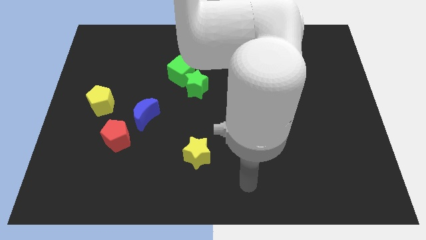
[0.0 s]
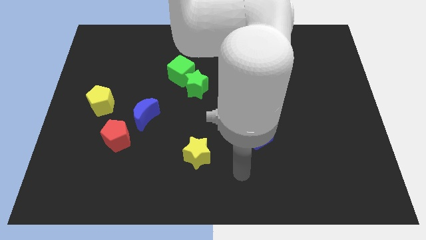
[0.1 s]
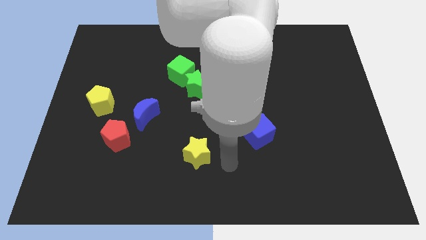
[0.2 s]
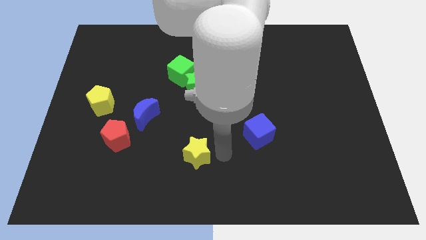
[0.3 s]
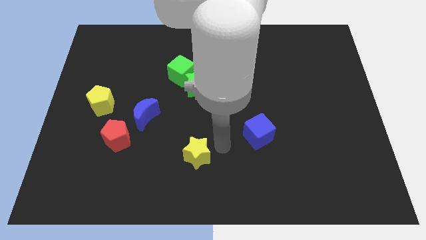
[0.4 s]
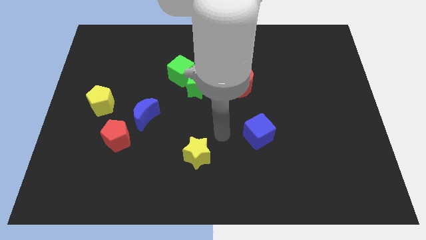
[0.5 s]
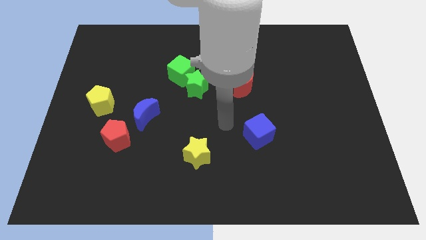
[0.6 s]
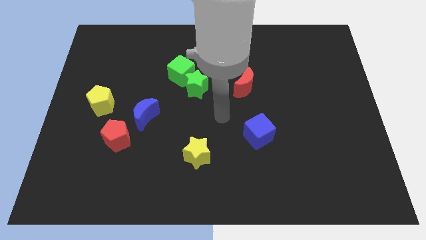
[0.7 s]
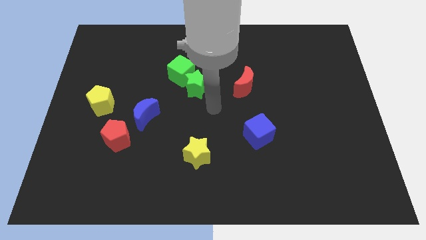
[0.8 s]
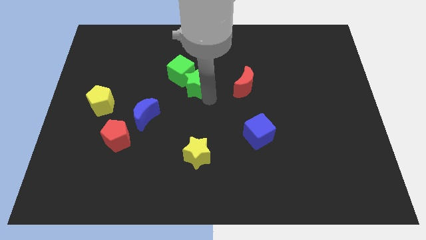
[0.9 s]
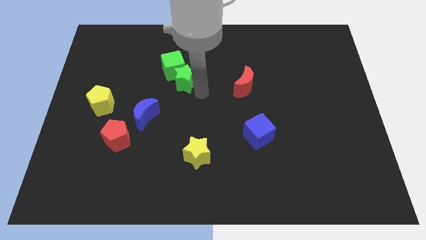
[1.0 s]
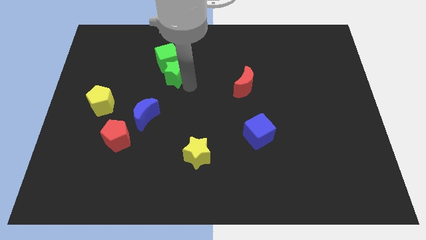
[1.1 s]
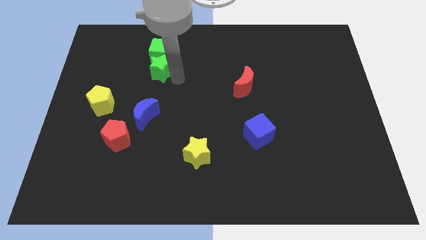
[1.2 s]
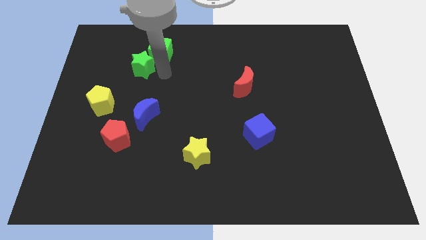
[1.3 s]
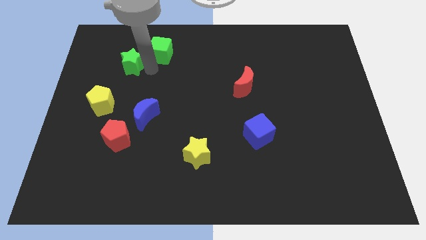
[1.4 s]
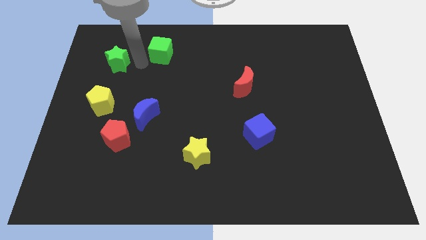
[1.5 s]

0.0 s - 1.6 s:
move the green cube away from the green star

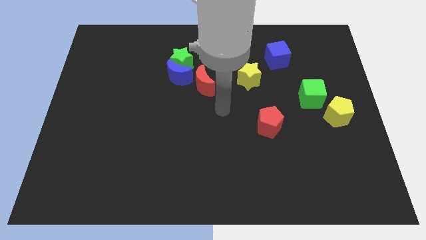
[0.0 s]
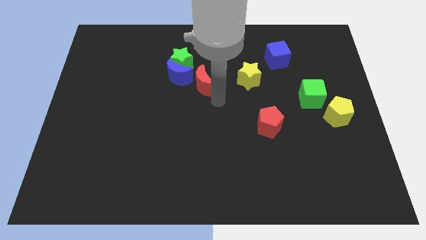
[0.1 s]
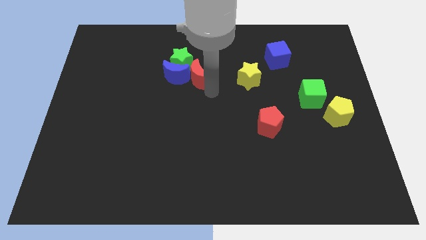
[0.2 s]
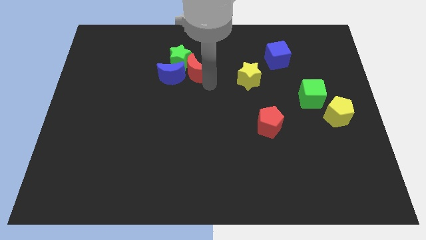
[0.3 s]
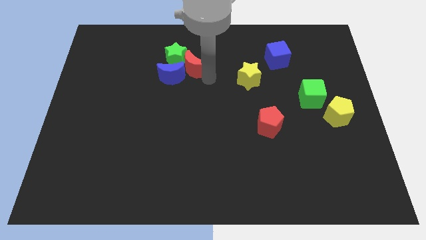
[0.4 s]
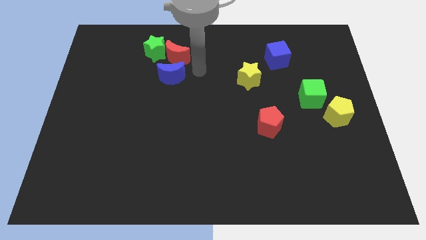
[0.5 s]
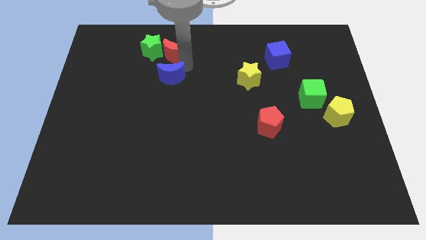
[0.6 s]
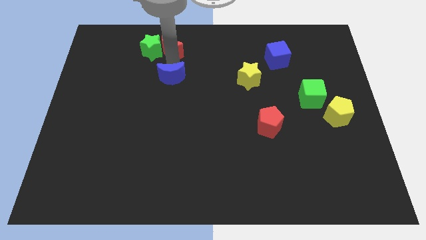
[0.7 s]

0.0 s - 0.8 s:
move the blue moon away from the green star and red moon

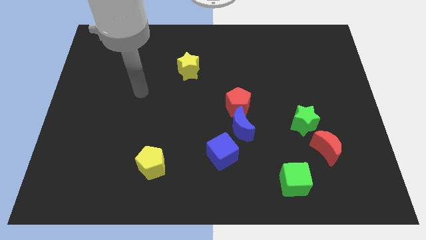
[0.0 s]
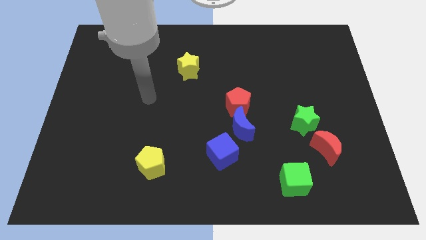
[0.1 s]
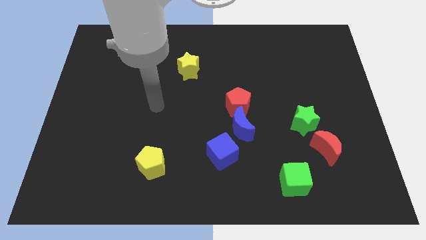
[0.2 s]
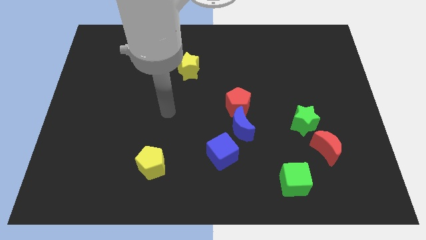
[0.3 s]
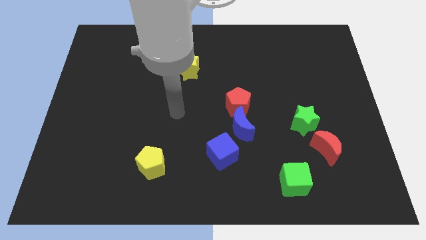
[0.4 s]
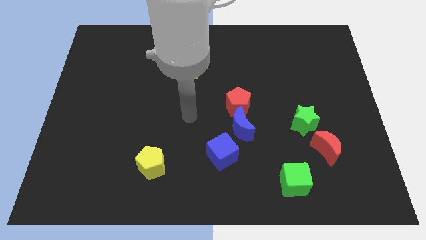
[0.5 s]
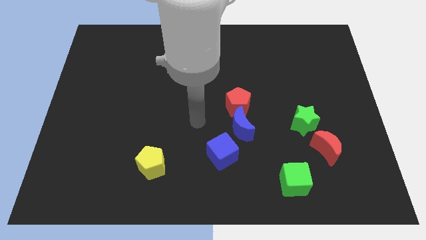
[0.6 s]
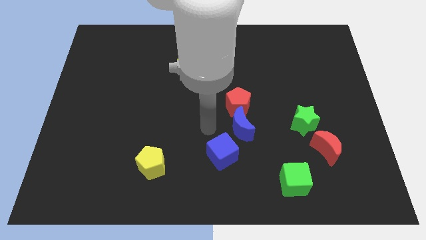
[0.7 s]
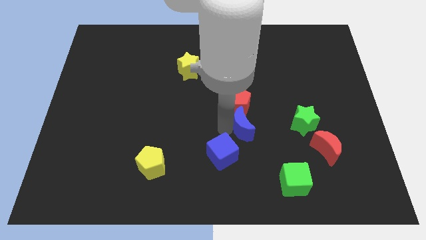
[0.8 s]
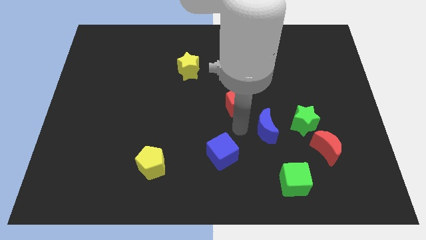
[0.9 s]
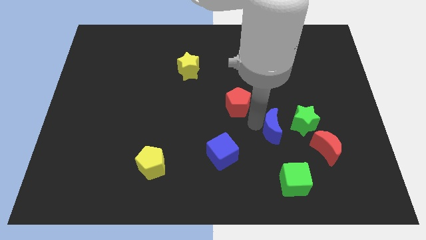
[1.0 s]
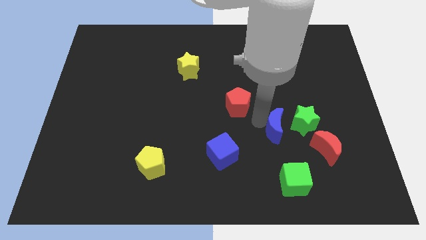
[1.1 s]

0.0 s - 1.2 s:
move the red pentagon away from the blue moon

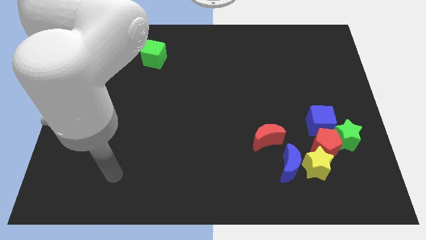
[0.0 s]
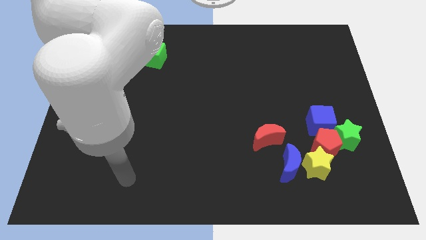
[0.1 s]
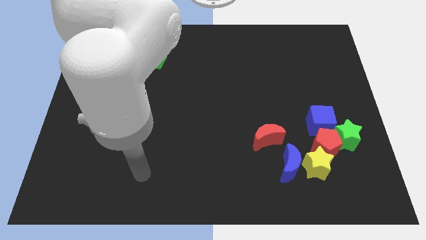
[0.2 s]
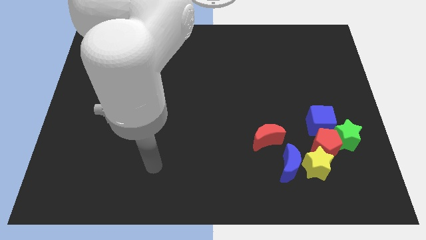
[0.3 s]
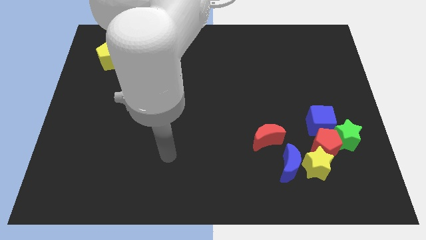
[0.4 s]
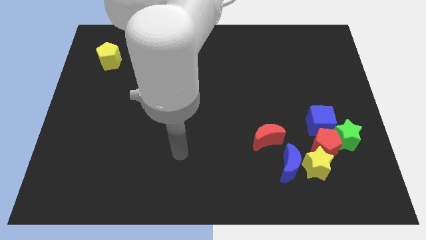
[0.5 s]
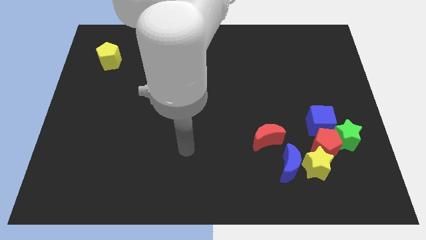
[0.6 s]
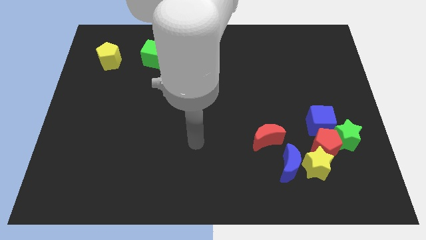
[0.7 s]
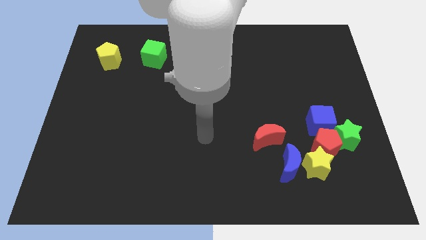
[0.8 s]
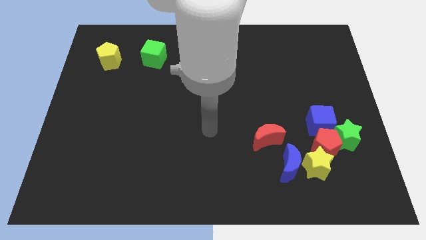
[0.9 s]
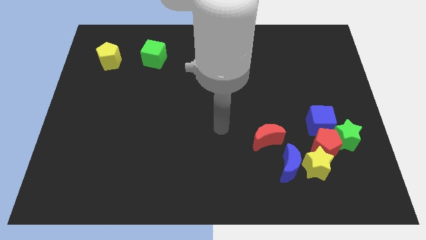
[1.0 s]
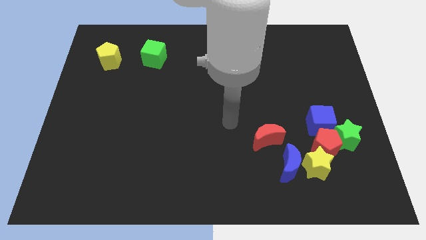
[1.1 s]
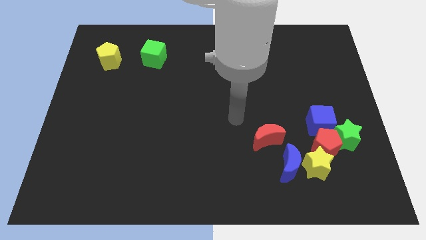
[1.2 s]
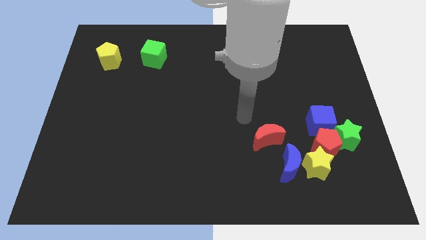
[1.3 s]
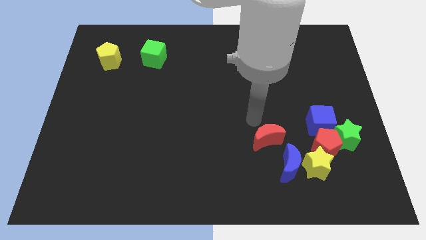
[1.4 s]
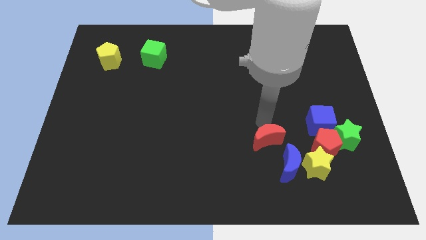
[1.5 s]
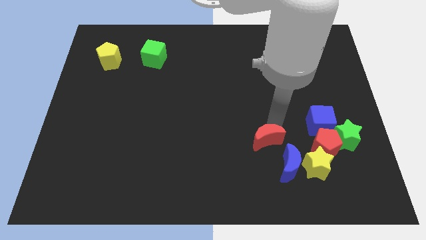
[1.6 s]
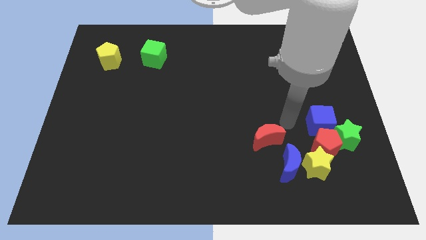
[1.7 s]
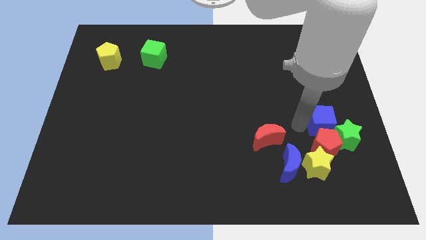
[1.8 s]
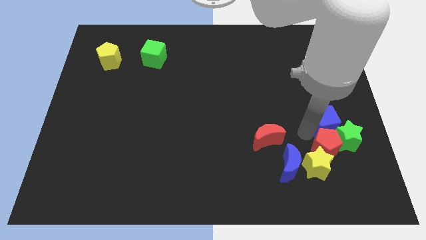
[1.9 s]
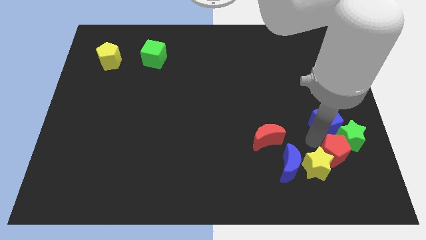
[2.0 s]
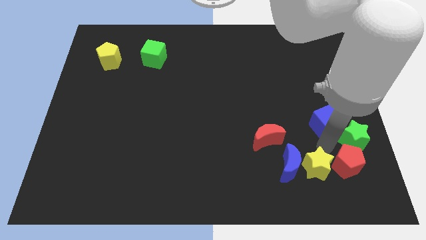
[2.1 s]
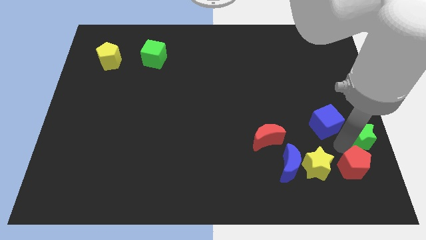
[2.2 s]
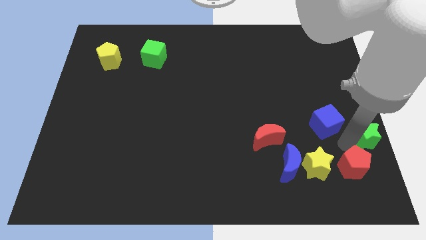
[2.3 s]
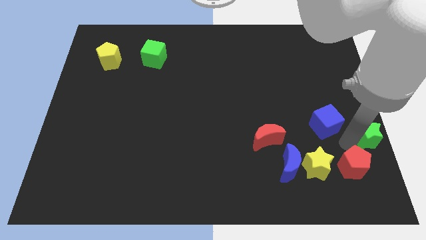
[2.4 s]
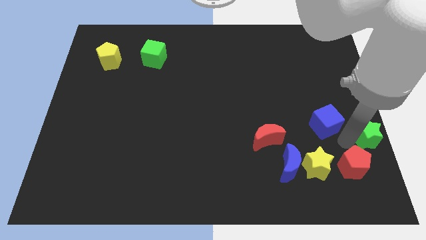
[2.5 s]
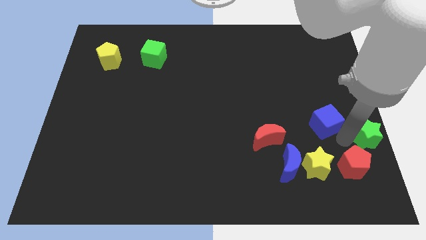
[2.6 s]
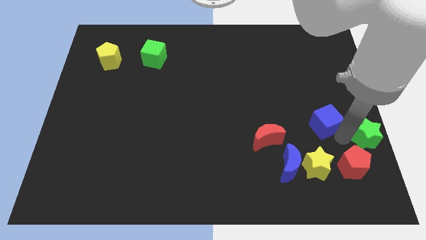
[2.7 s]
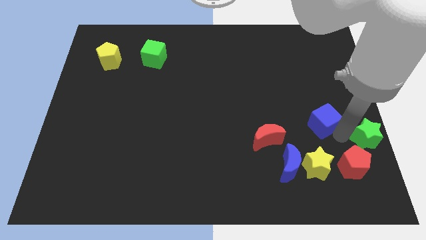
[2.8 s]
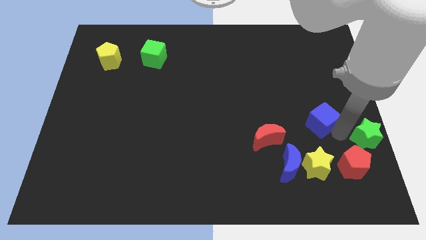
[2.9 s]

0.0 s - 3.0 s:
separate the blue cube from the red pentagon and green star

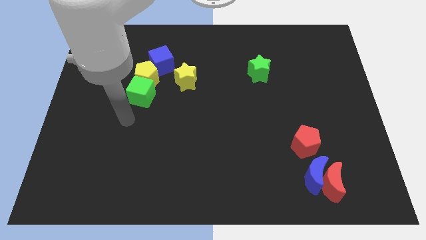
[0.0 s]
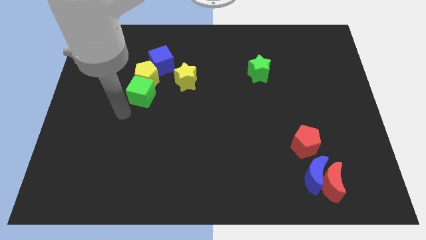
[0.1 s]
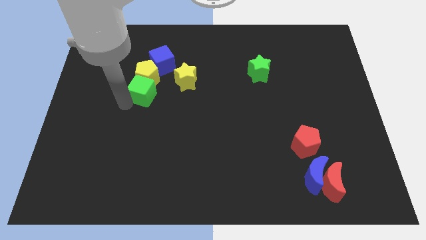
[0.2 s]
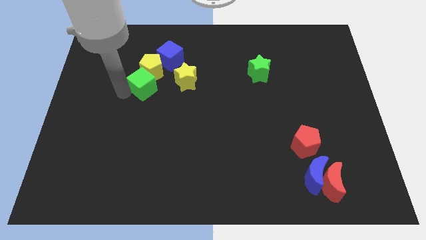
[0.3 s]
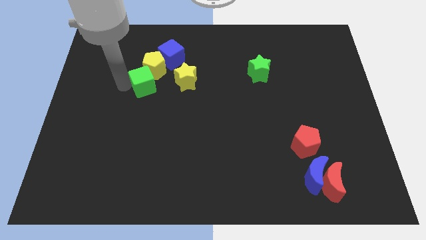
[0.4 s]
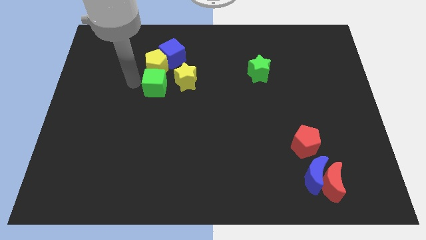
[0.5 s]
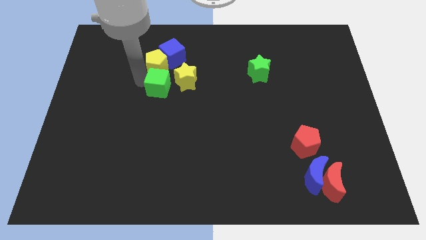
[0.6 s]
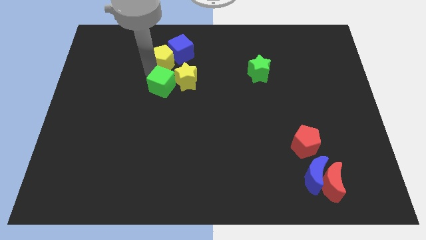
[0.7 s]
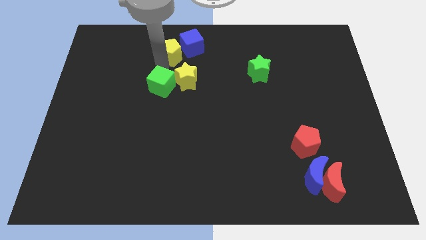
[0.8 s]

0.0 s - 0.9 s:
move the green cube away from the yellow pentagon

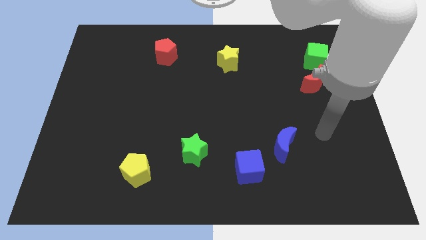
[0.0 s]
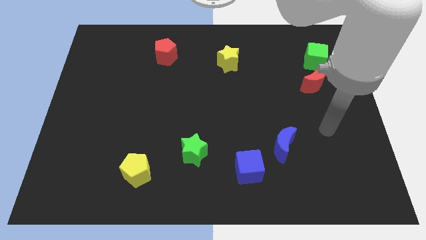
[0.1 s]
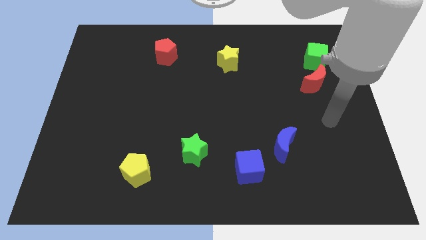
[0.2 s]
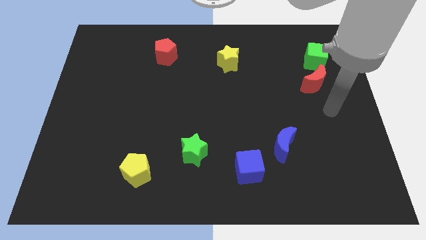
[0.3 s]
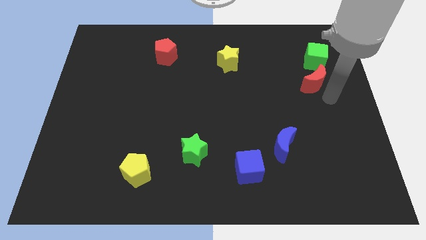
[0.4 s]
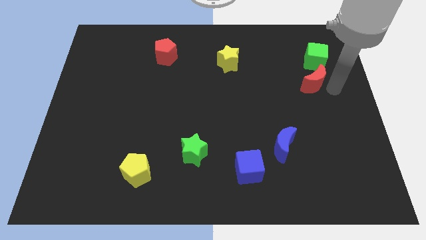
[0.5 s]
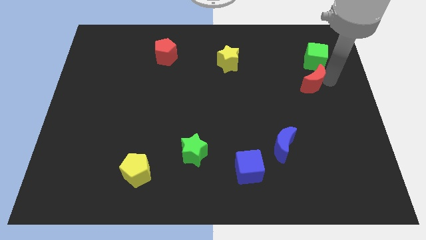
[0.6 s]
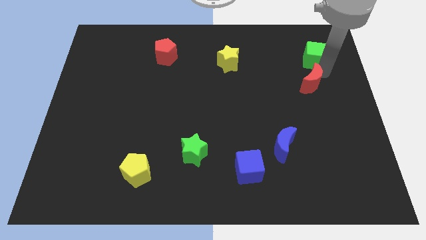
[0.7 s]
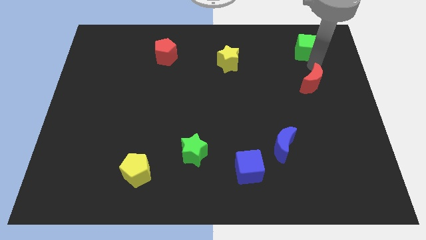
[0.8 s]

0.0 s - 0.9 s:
move the red moon away from the green cube

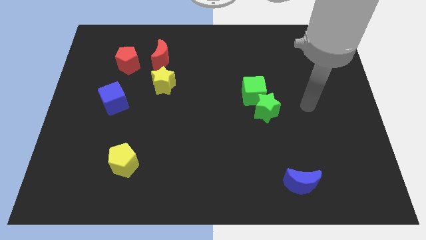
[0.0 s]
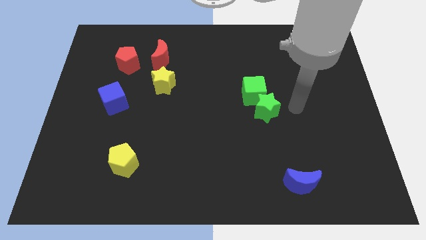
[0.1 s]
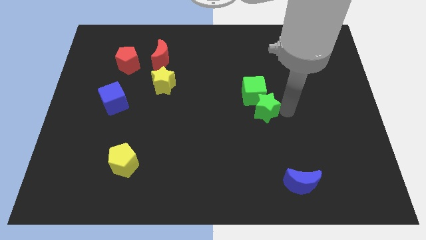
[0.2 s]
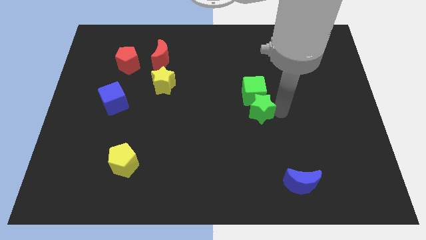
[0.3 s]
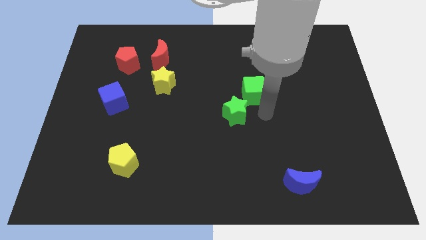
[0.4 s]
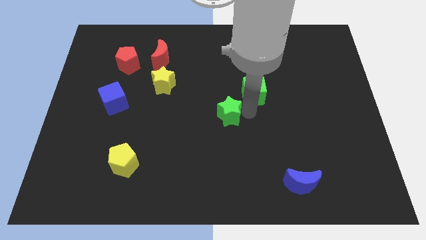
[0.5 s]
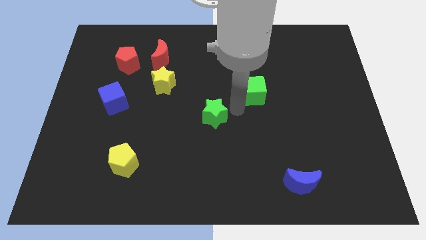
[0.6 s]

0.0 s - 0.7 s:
pull the green cube apart from the green star

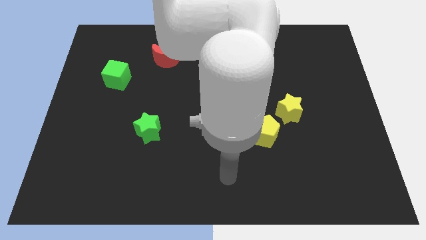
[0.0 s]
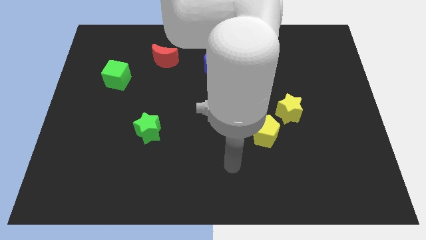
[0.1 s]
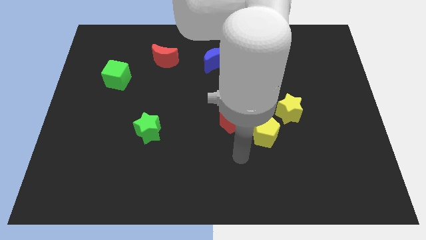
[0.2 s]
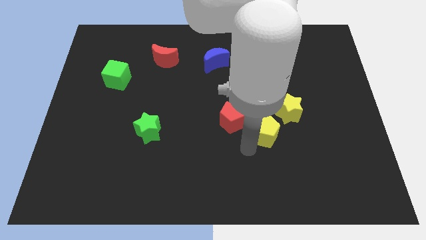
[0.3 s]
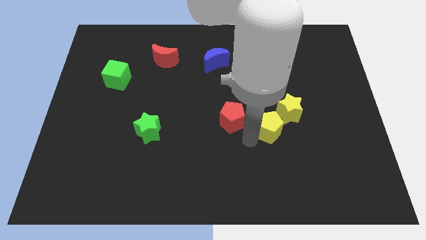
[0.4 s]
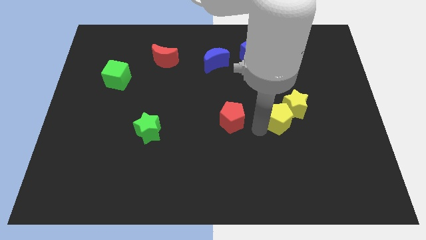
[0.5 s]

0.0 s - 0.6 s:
pull the red pentagon apart from the yellow pentagon
